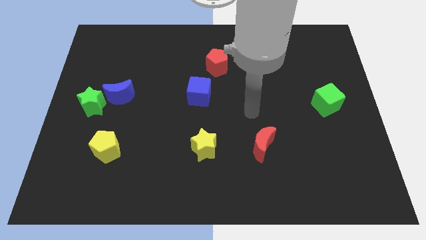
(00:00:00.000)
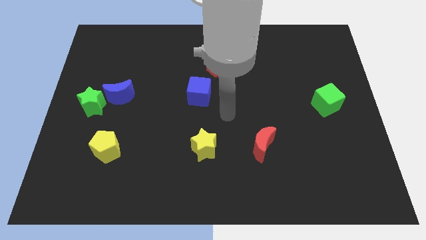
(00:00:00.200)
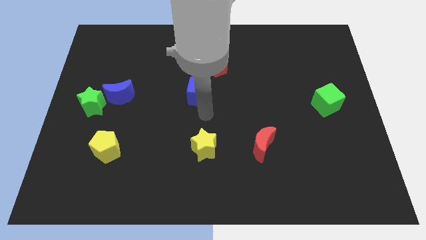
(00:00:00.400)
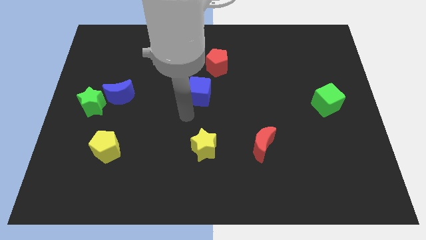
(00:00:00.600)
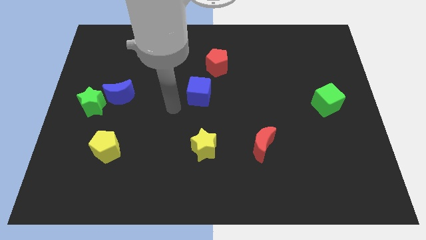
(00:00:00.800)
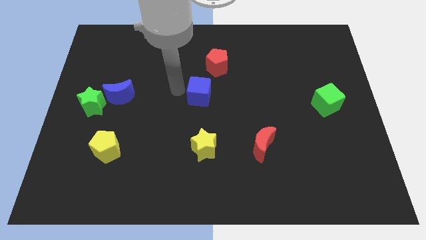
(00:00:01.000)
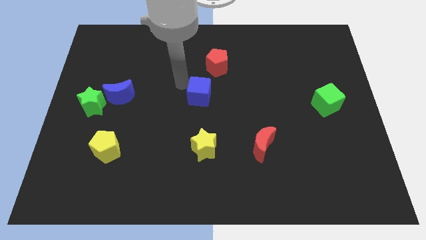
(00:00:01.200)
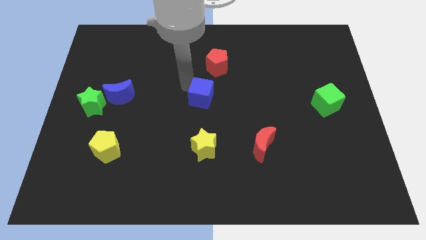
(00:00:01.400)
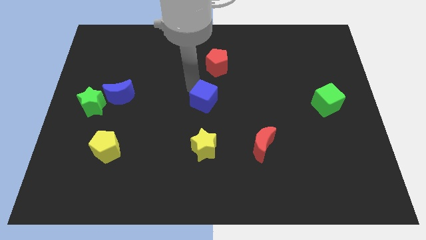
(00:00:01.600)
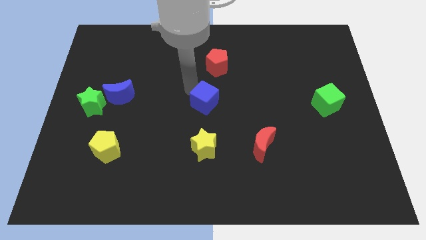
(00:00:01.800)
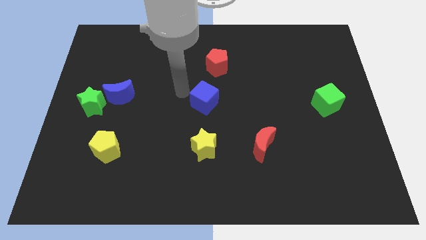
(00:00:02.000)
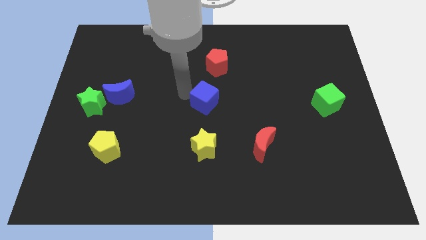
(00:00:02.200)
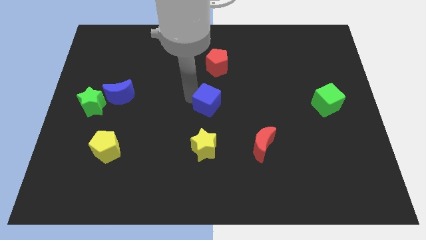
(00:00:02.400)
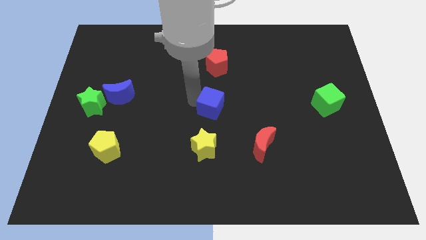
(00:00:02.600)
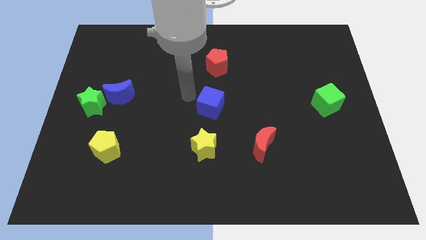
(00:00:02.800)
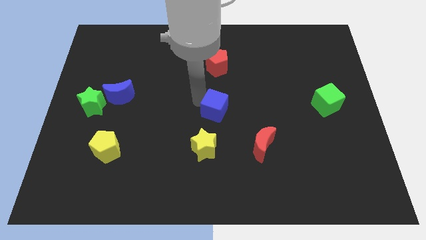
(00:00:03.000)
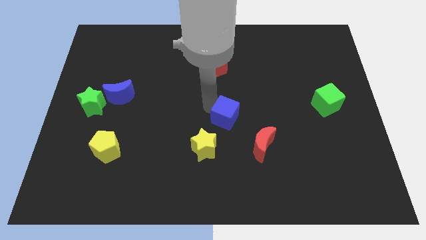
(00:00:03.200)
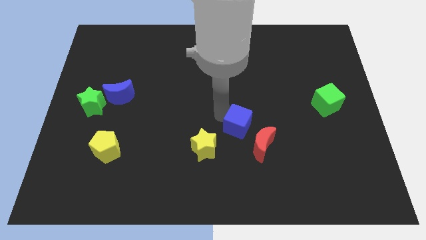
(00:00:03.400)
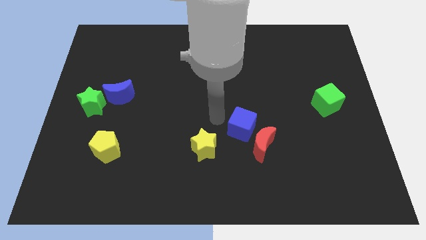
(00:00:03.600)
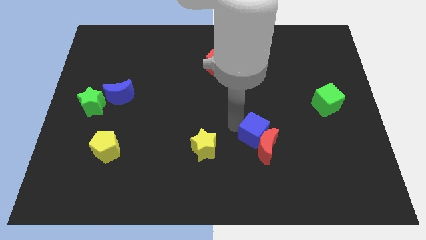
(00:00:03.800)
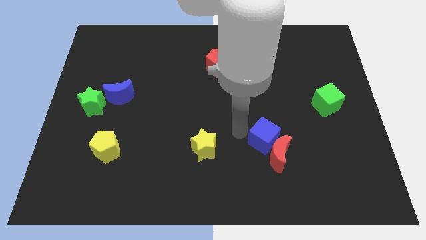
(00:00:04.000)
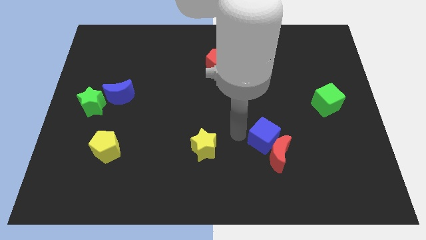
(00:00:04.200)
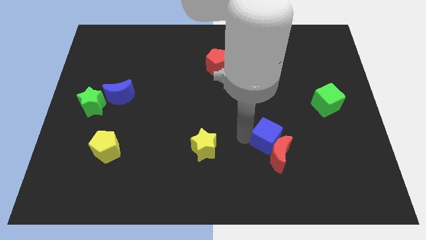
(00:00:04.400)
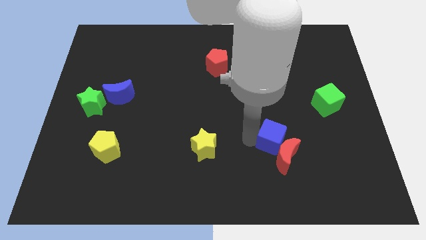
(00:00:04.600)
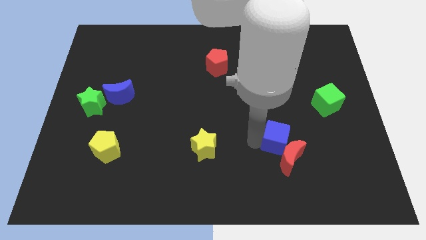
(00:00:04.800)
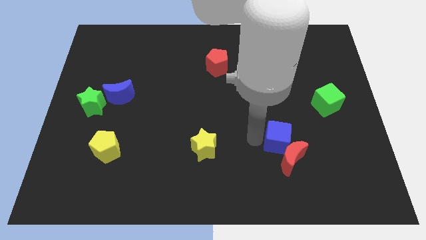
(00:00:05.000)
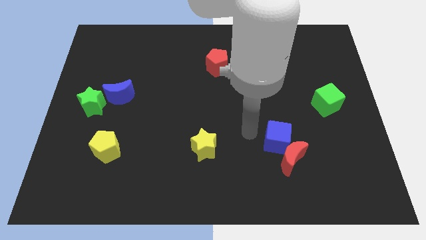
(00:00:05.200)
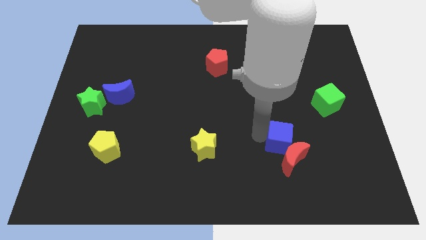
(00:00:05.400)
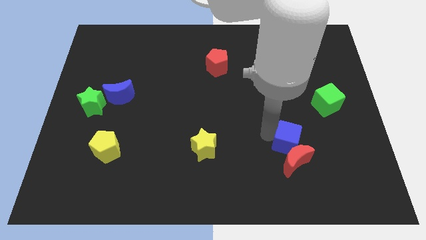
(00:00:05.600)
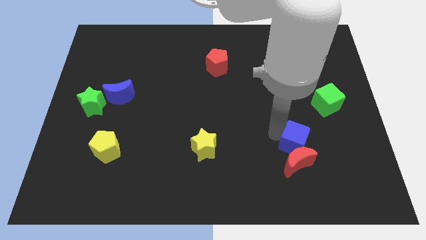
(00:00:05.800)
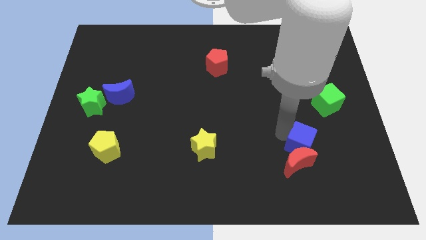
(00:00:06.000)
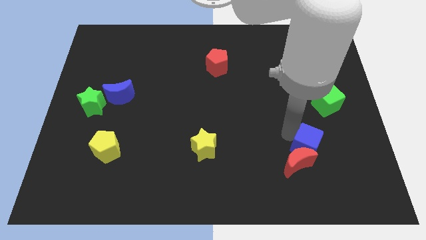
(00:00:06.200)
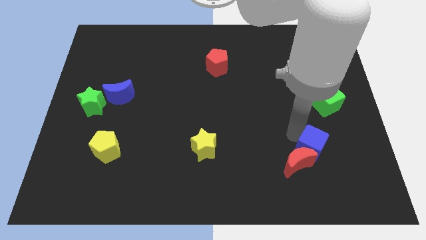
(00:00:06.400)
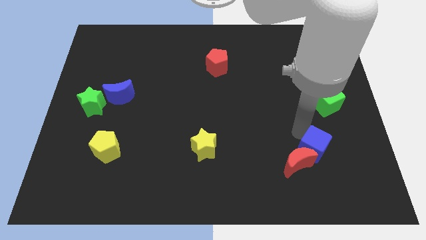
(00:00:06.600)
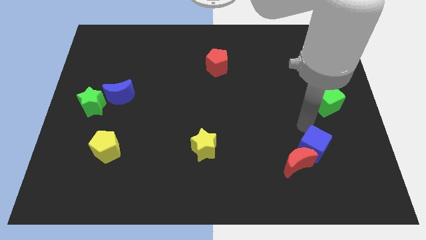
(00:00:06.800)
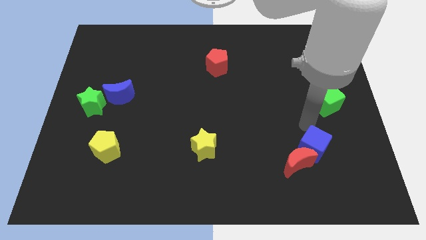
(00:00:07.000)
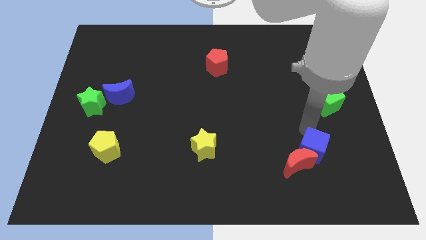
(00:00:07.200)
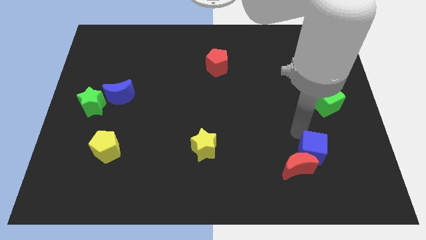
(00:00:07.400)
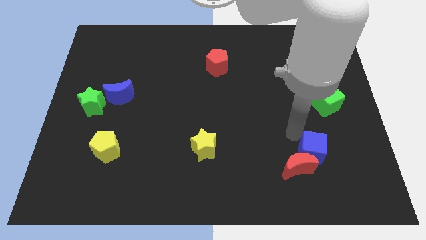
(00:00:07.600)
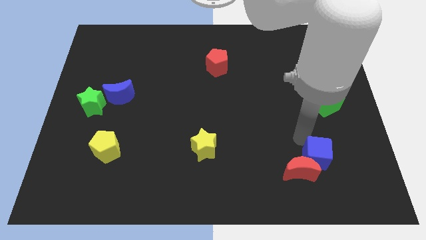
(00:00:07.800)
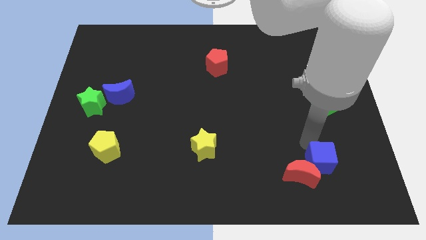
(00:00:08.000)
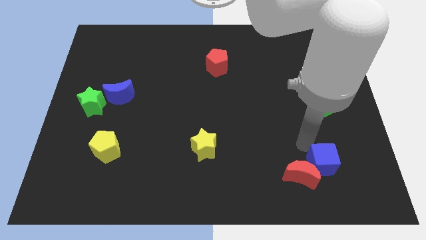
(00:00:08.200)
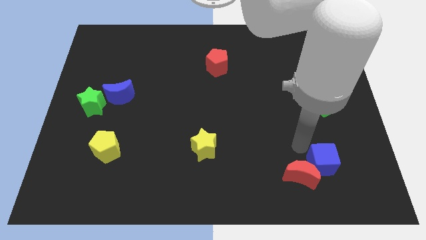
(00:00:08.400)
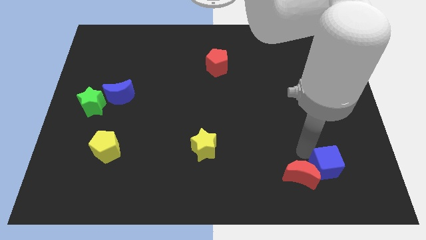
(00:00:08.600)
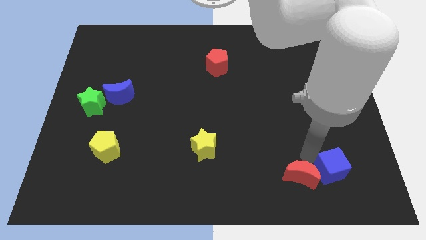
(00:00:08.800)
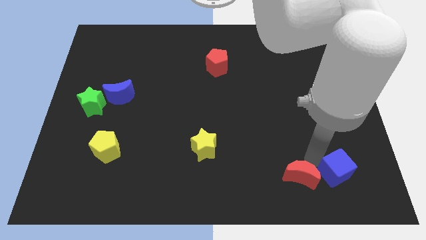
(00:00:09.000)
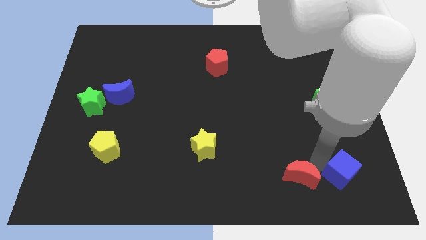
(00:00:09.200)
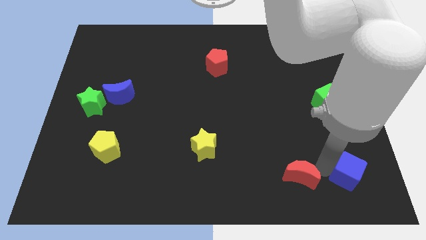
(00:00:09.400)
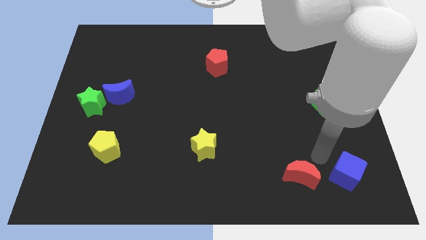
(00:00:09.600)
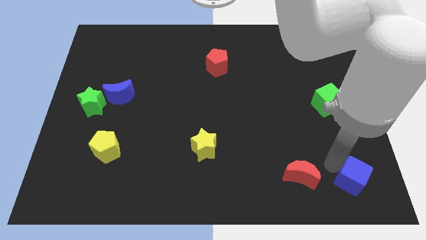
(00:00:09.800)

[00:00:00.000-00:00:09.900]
move the blue cube to the bottom right

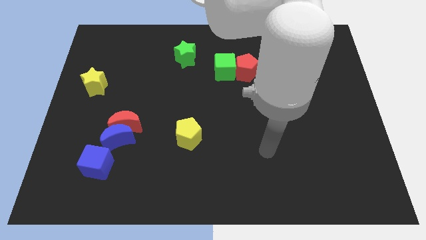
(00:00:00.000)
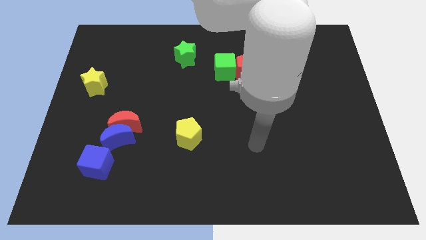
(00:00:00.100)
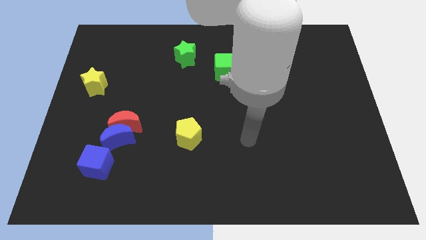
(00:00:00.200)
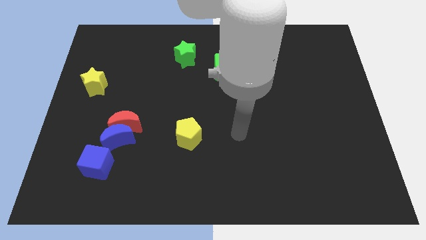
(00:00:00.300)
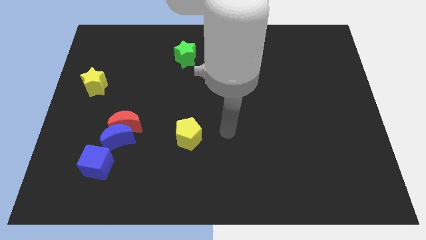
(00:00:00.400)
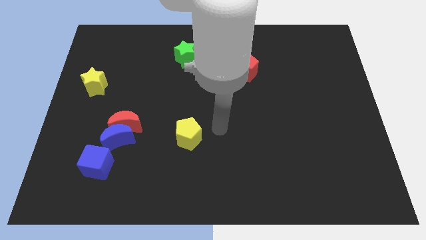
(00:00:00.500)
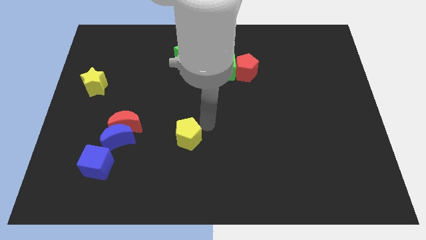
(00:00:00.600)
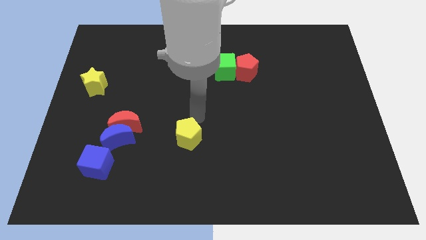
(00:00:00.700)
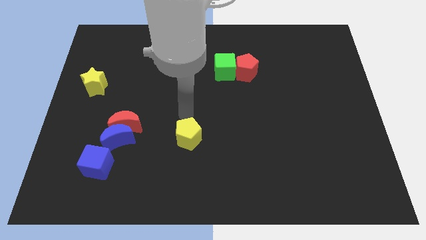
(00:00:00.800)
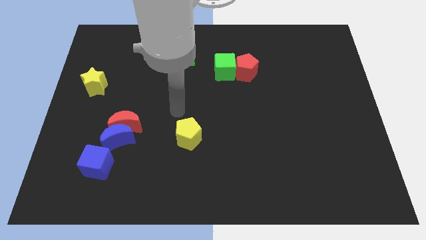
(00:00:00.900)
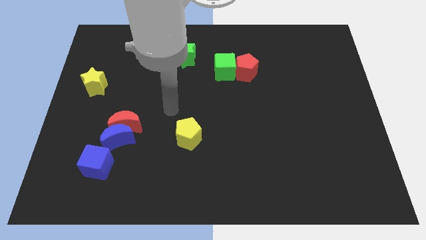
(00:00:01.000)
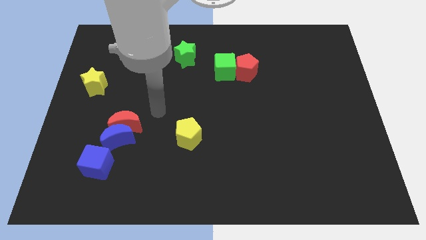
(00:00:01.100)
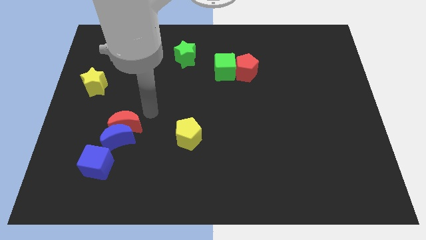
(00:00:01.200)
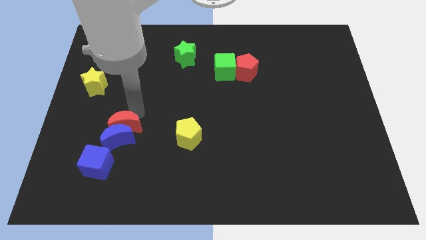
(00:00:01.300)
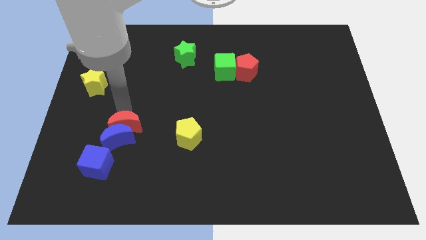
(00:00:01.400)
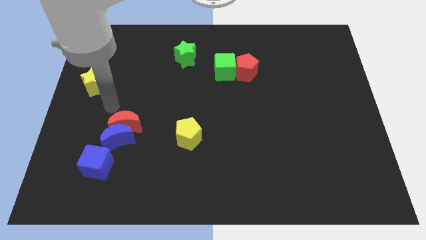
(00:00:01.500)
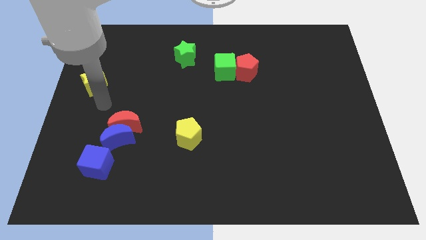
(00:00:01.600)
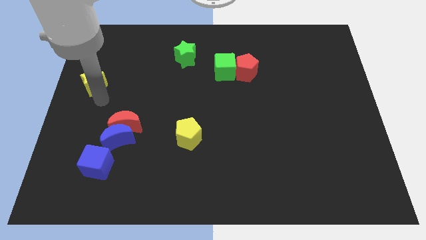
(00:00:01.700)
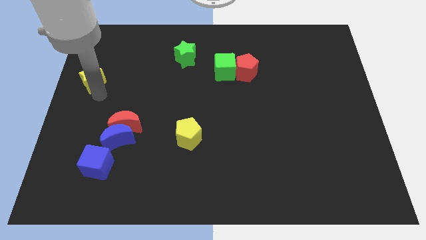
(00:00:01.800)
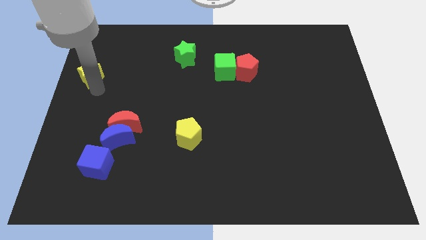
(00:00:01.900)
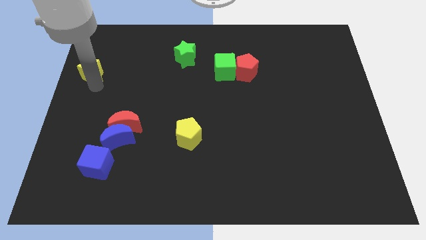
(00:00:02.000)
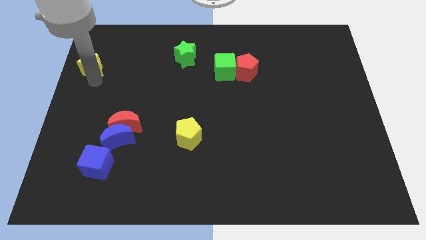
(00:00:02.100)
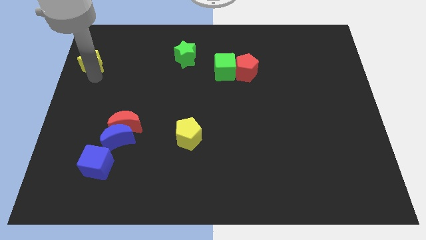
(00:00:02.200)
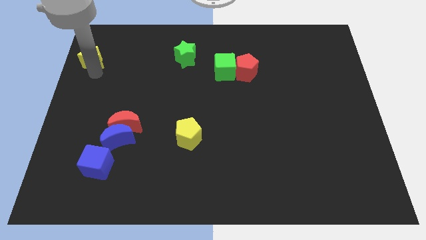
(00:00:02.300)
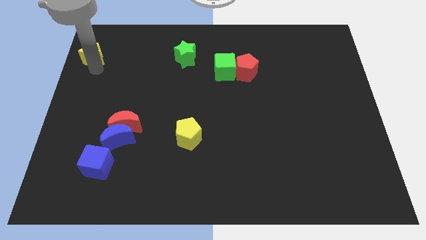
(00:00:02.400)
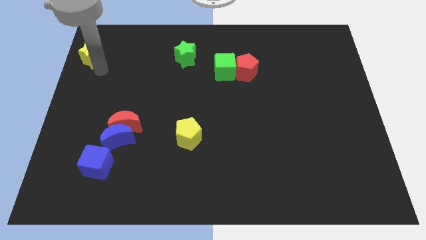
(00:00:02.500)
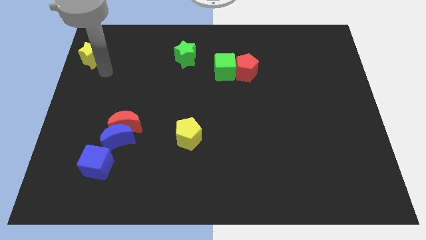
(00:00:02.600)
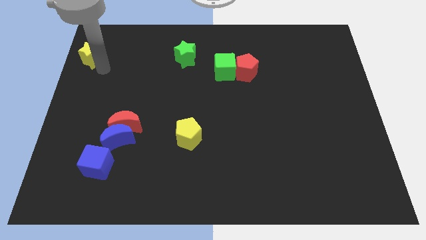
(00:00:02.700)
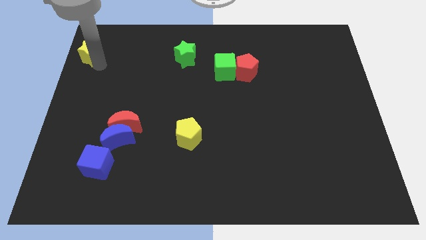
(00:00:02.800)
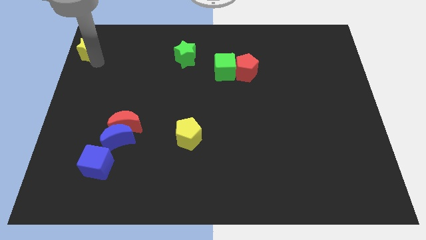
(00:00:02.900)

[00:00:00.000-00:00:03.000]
put the yellow star to the top left
